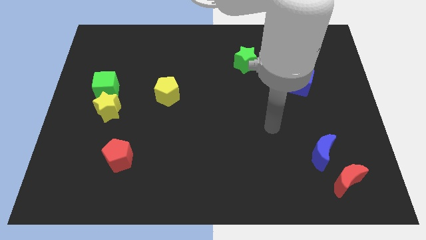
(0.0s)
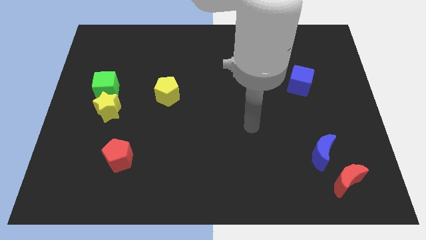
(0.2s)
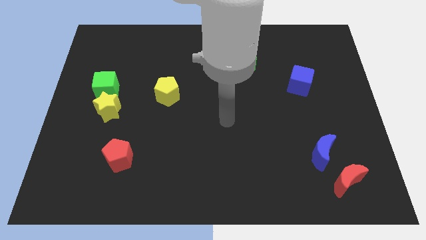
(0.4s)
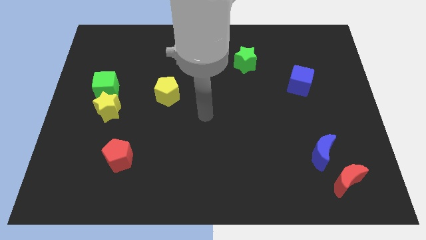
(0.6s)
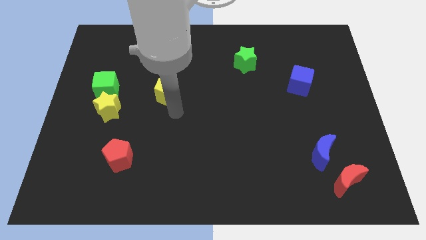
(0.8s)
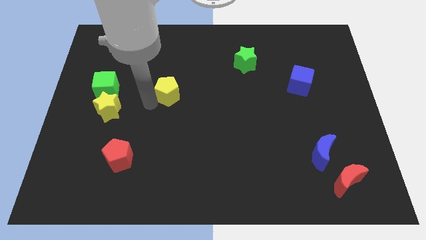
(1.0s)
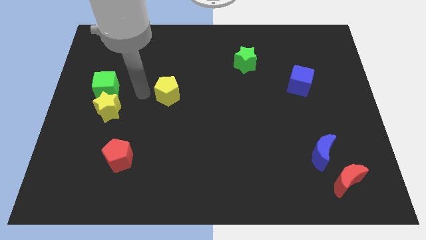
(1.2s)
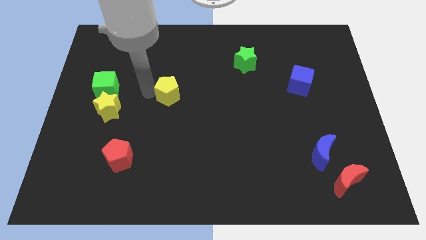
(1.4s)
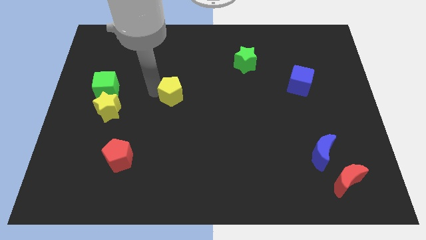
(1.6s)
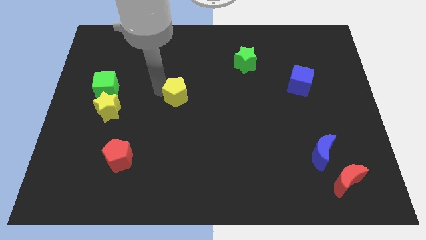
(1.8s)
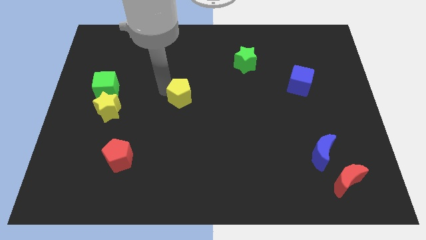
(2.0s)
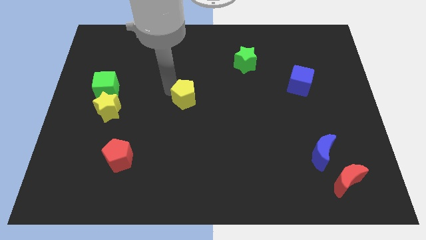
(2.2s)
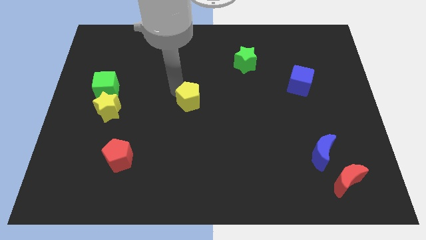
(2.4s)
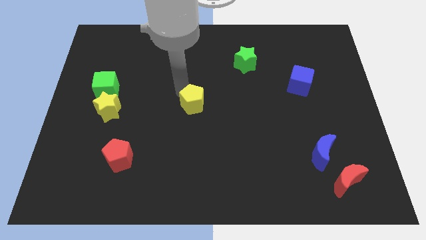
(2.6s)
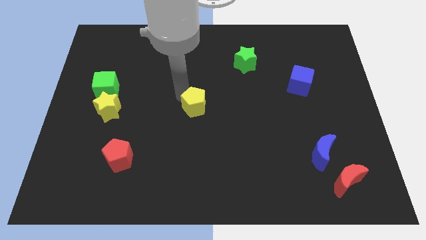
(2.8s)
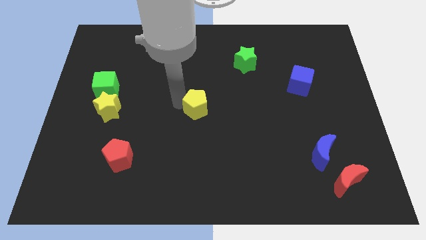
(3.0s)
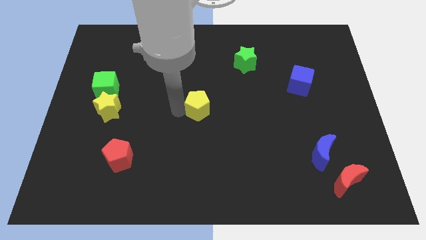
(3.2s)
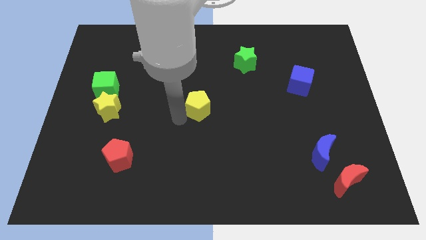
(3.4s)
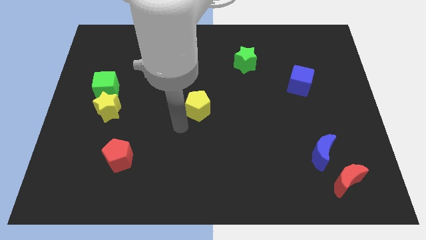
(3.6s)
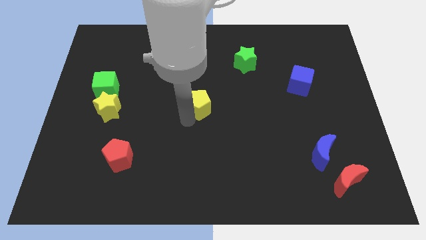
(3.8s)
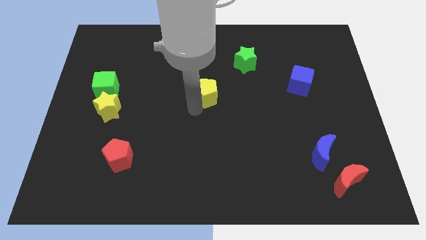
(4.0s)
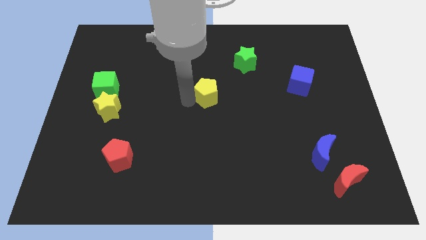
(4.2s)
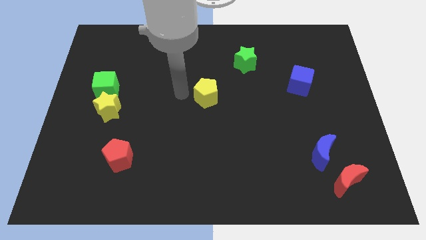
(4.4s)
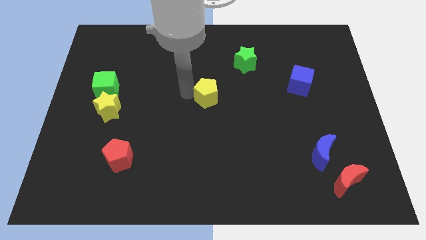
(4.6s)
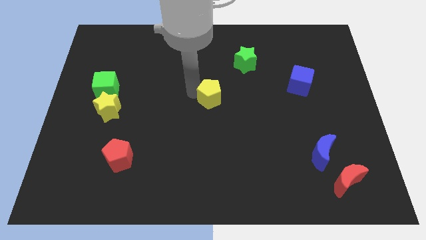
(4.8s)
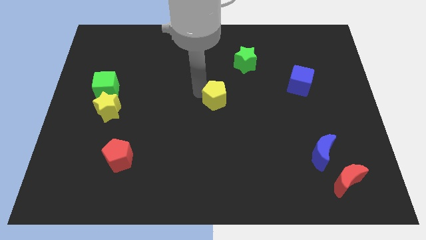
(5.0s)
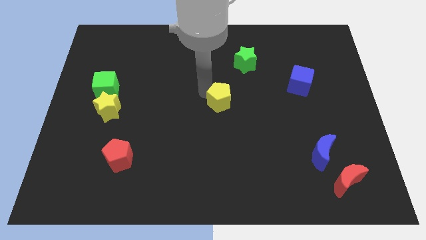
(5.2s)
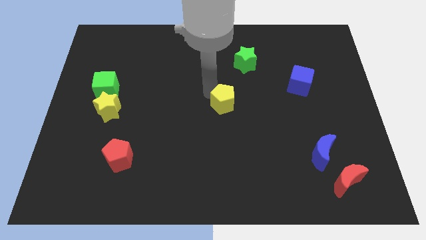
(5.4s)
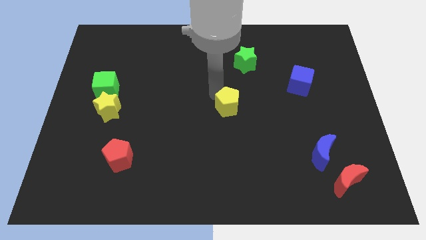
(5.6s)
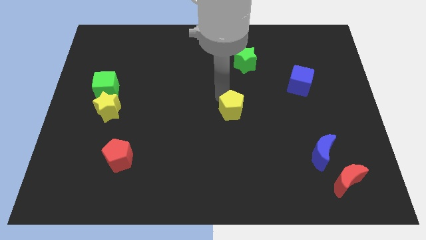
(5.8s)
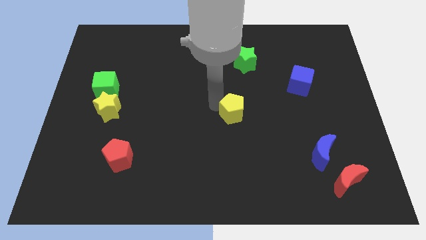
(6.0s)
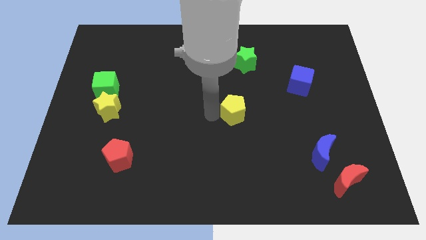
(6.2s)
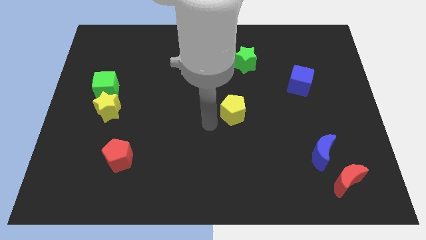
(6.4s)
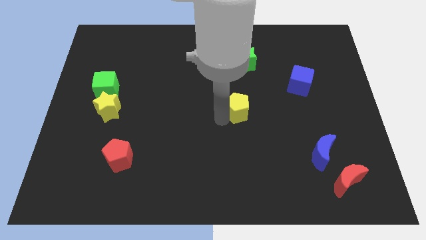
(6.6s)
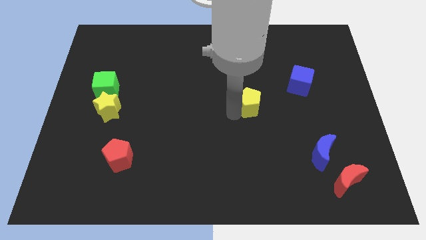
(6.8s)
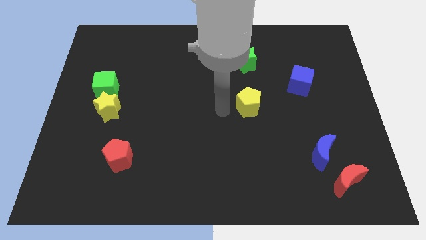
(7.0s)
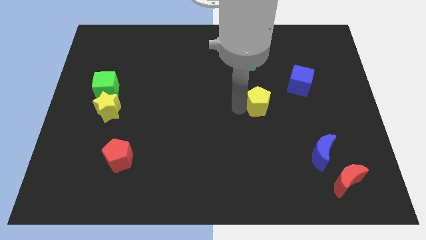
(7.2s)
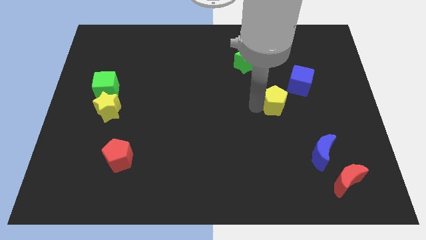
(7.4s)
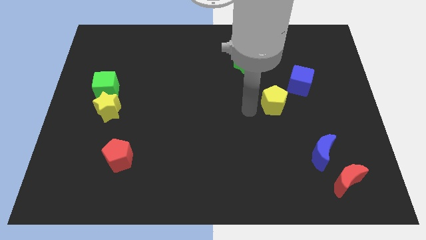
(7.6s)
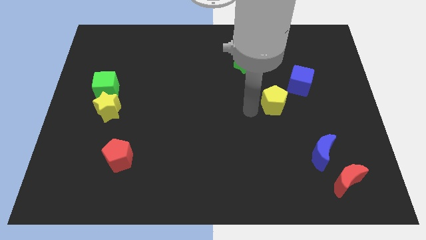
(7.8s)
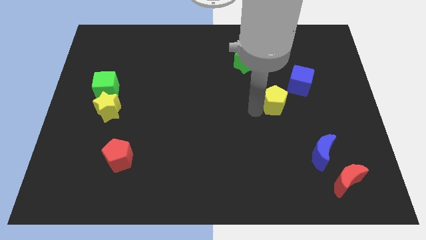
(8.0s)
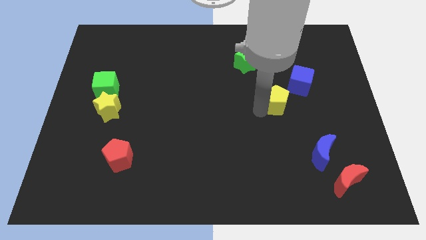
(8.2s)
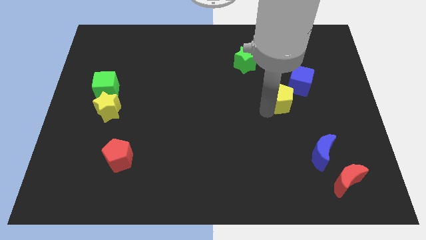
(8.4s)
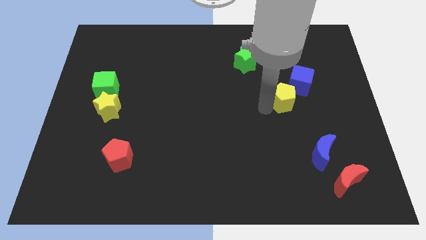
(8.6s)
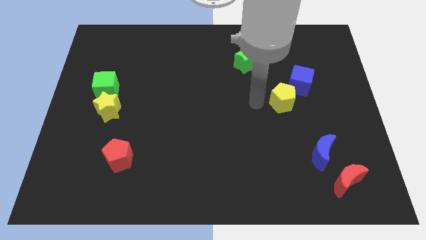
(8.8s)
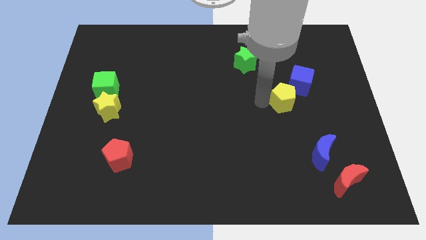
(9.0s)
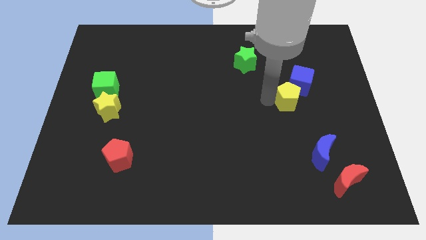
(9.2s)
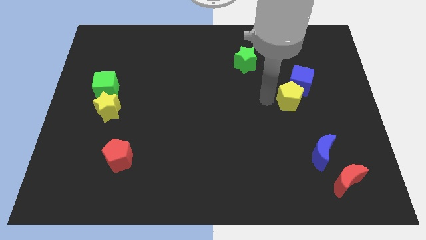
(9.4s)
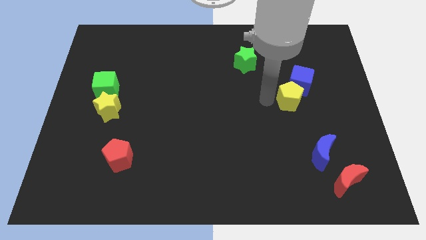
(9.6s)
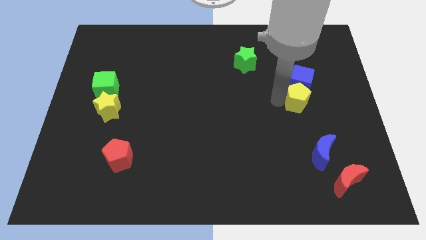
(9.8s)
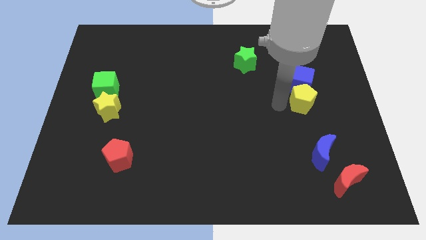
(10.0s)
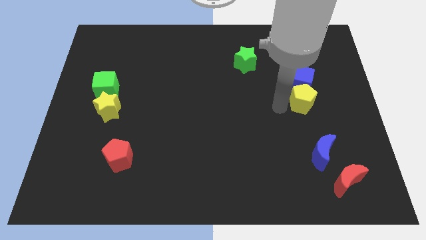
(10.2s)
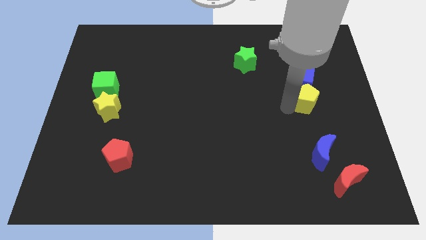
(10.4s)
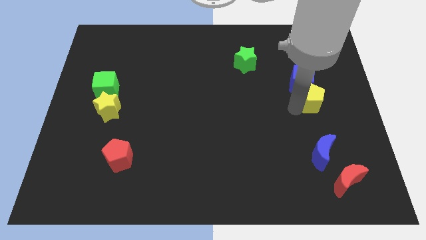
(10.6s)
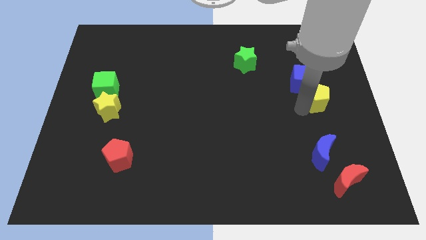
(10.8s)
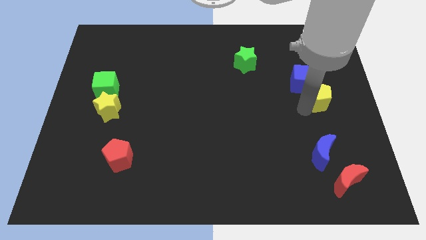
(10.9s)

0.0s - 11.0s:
slide the yellow pentagon to the right side of the board
